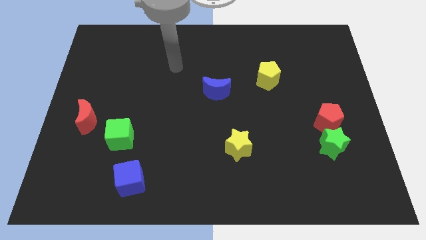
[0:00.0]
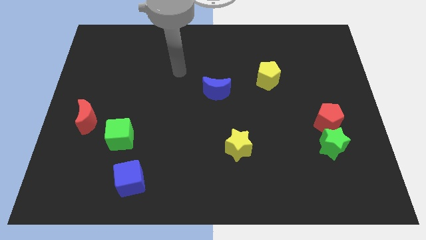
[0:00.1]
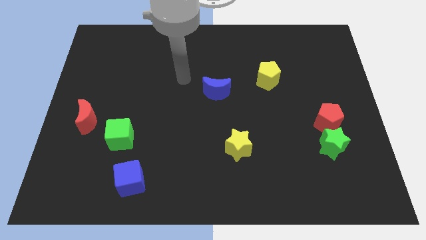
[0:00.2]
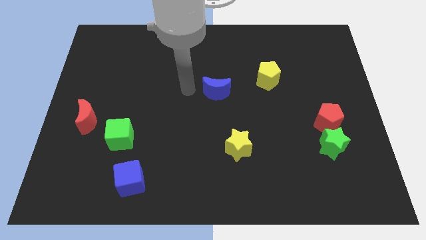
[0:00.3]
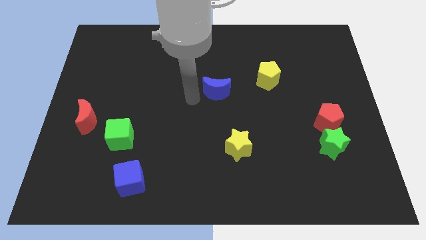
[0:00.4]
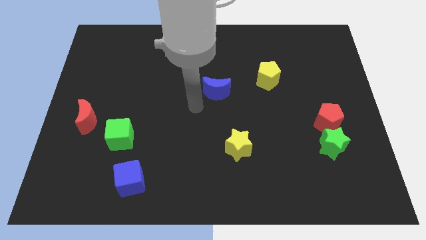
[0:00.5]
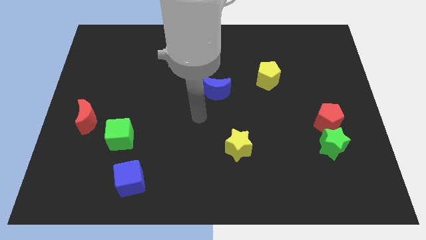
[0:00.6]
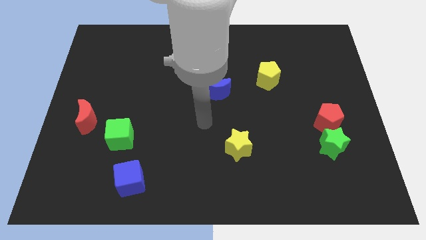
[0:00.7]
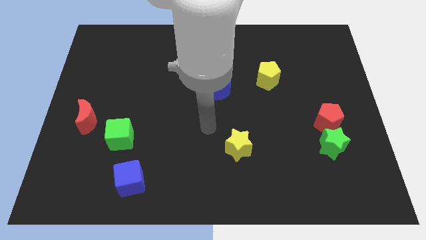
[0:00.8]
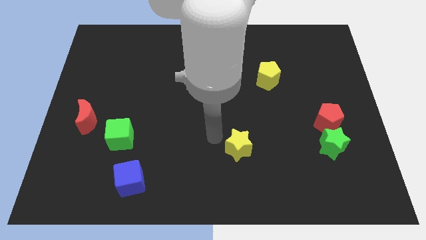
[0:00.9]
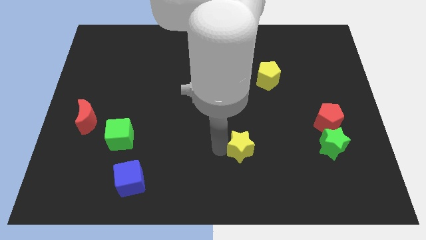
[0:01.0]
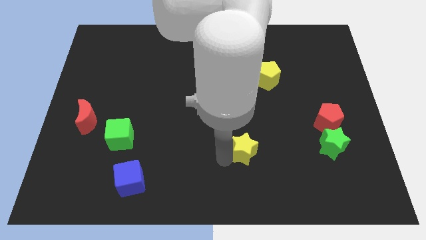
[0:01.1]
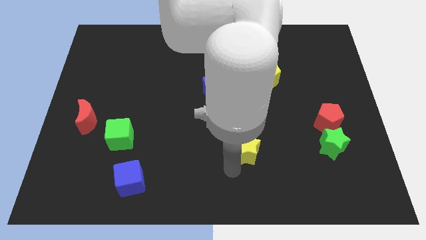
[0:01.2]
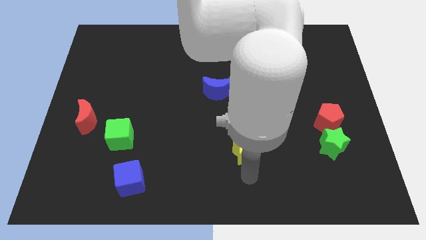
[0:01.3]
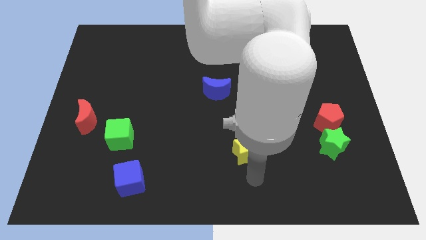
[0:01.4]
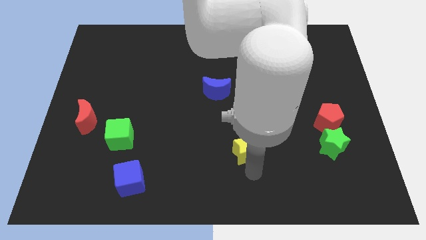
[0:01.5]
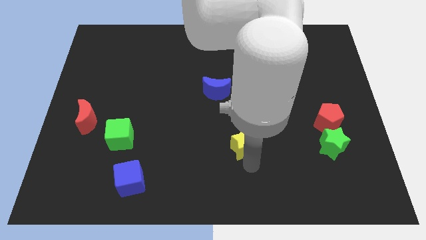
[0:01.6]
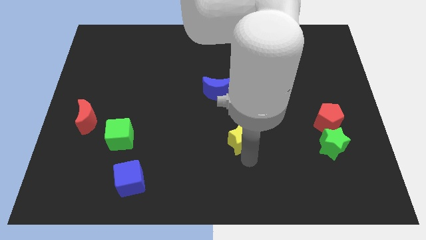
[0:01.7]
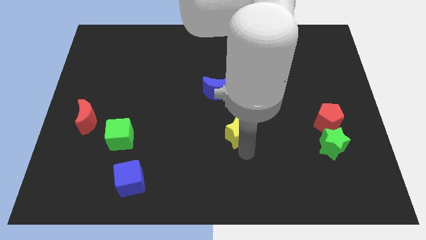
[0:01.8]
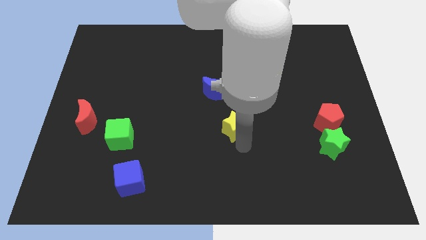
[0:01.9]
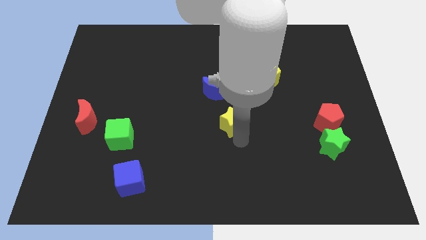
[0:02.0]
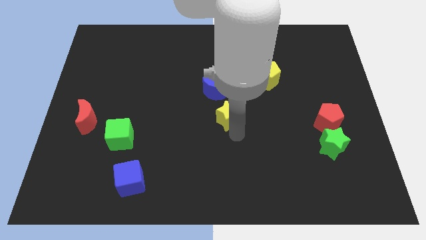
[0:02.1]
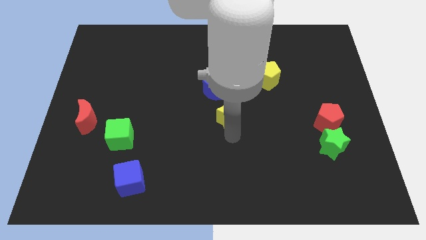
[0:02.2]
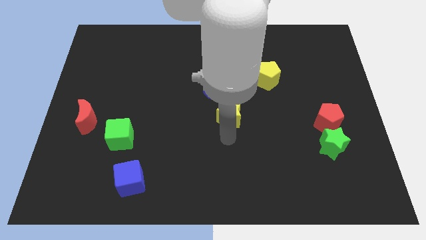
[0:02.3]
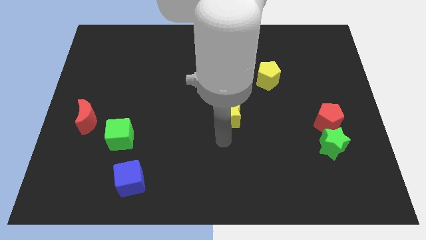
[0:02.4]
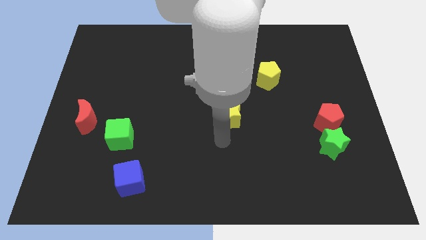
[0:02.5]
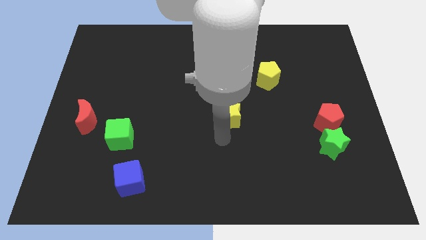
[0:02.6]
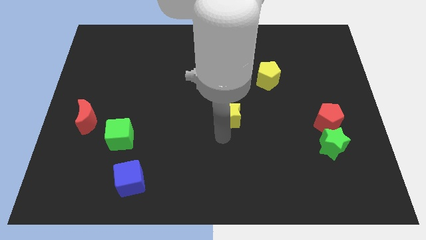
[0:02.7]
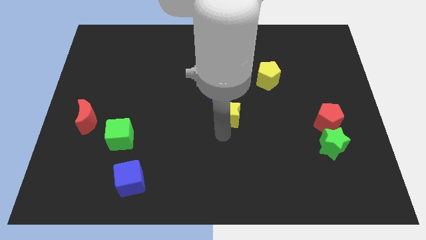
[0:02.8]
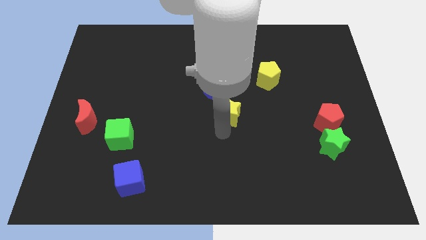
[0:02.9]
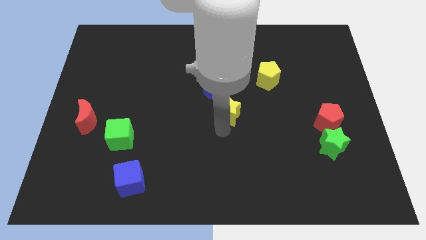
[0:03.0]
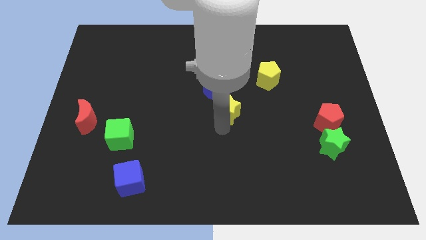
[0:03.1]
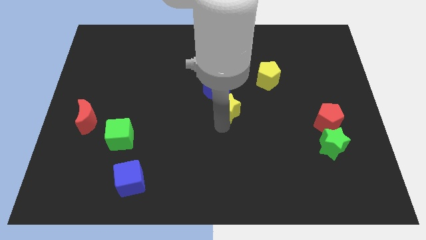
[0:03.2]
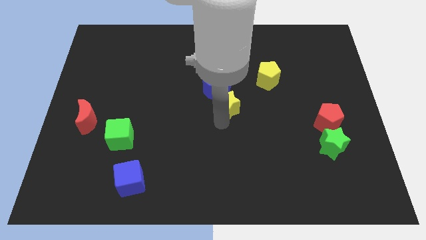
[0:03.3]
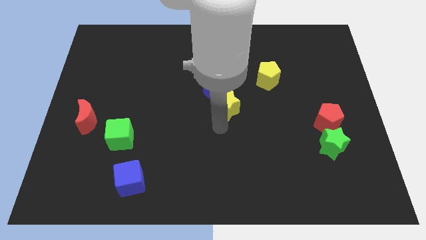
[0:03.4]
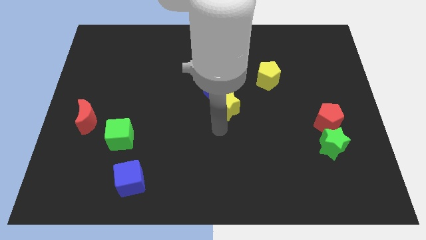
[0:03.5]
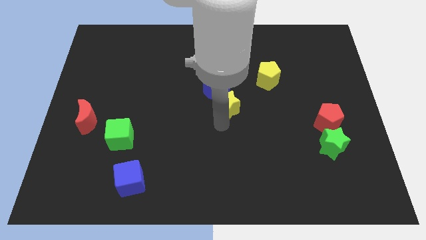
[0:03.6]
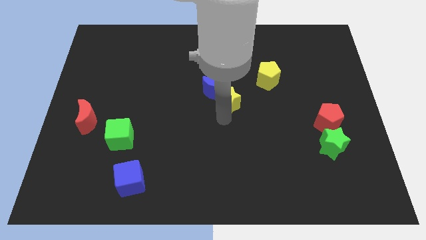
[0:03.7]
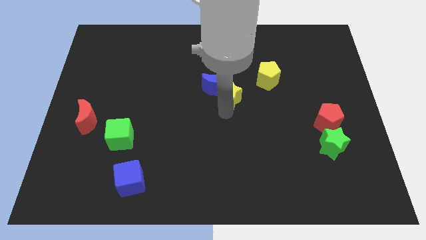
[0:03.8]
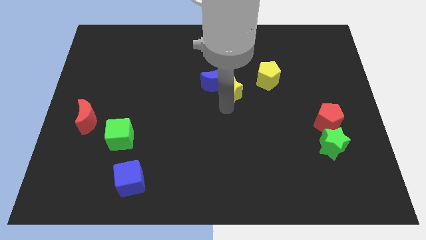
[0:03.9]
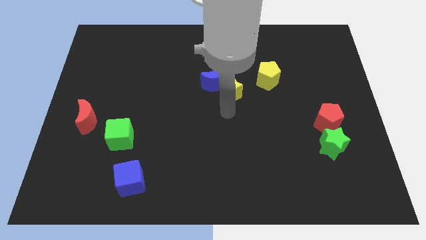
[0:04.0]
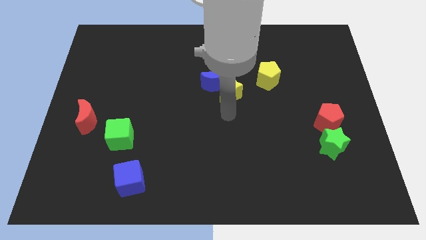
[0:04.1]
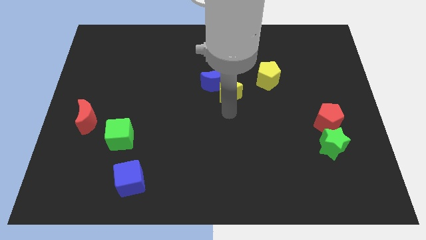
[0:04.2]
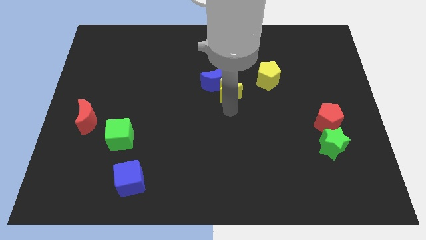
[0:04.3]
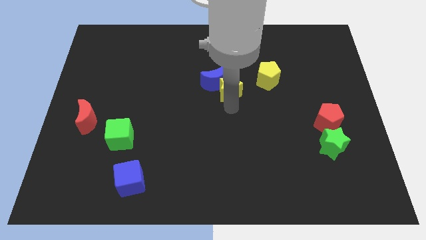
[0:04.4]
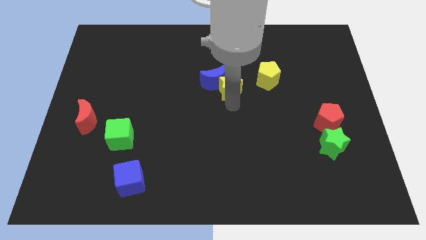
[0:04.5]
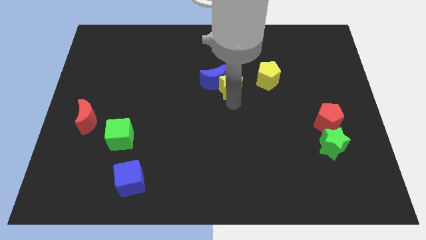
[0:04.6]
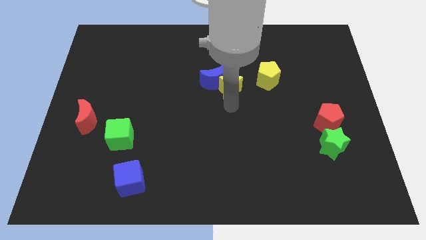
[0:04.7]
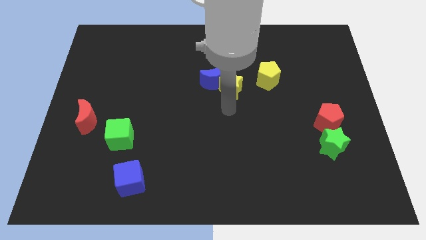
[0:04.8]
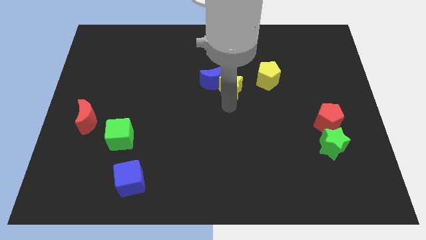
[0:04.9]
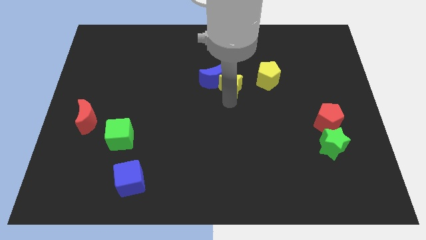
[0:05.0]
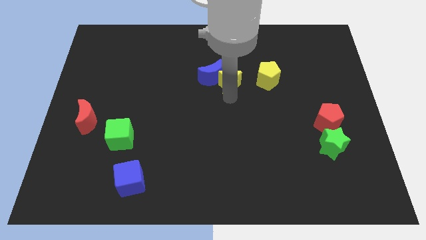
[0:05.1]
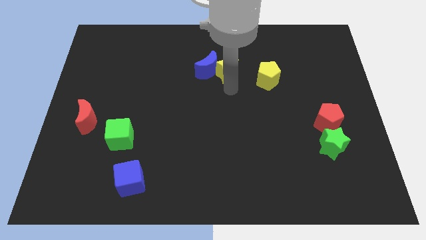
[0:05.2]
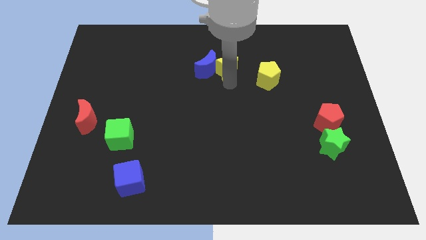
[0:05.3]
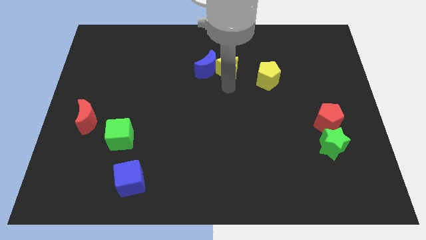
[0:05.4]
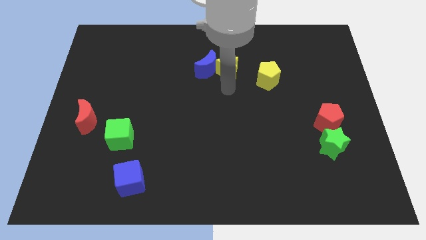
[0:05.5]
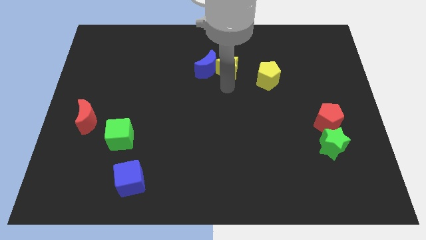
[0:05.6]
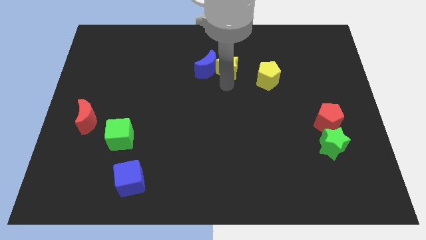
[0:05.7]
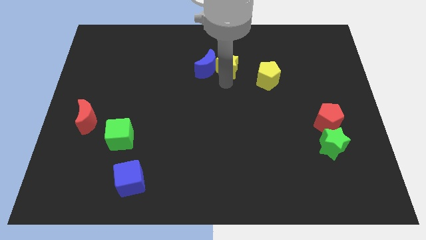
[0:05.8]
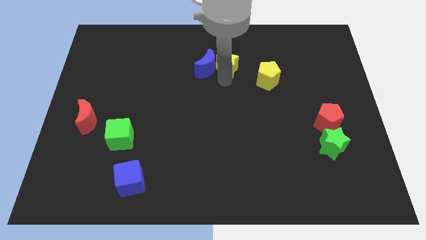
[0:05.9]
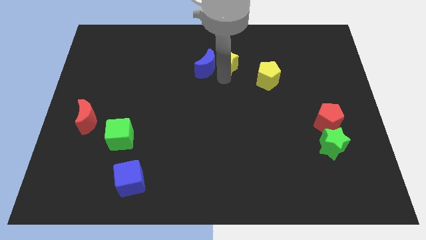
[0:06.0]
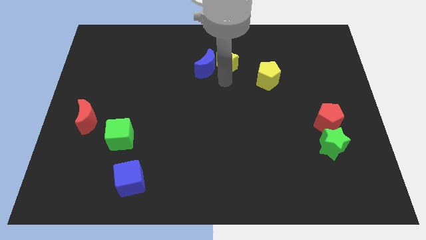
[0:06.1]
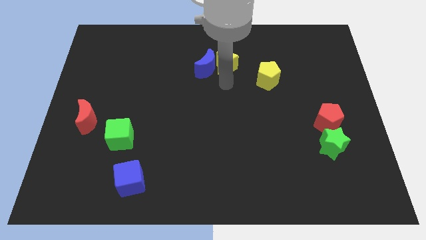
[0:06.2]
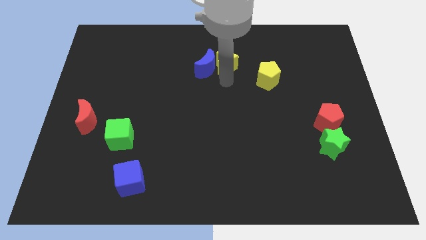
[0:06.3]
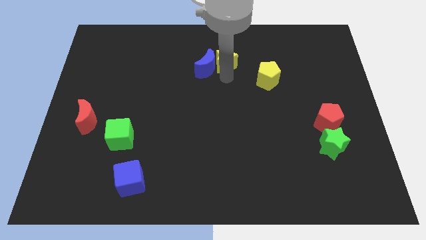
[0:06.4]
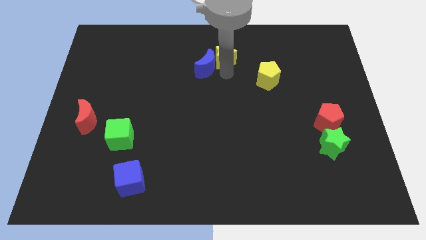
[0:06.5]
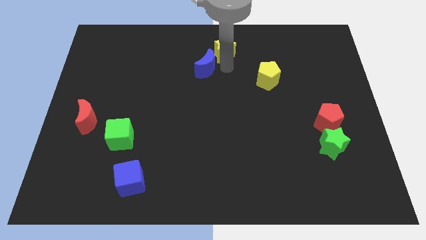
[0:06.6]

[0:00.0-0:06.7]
slide the yellow star to the top
